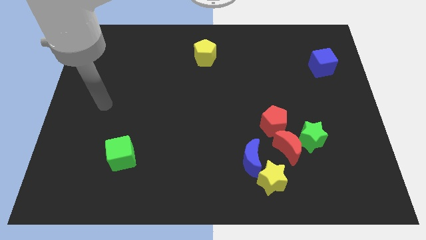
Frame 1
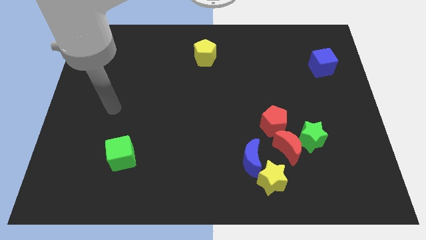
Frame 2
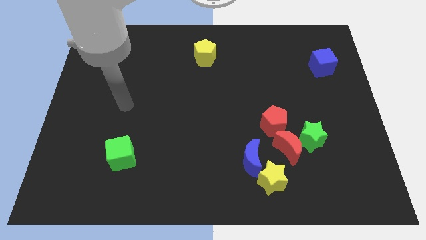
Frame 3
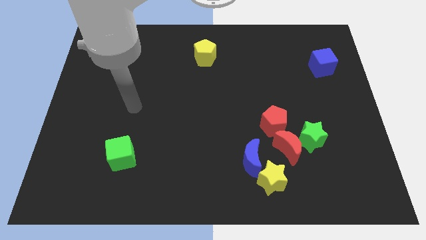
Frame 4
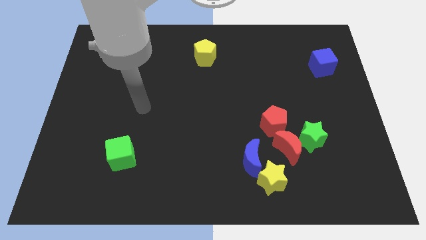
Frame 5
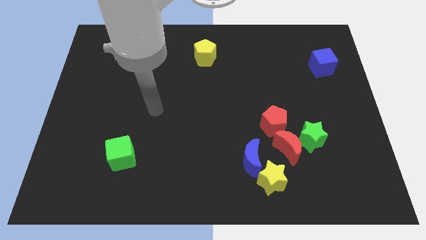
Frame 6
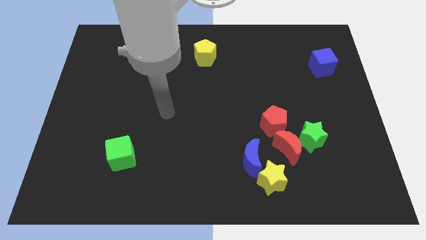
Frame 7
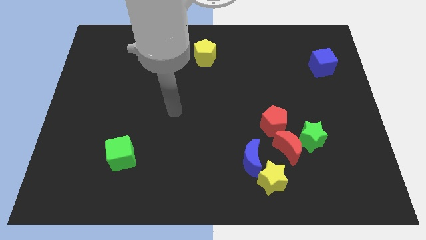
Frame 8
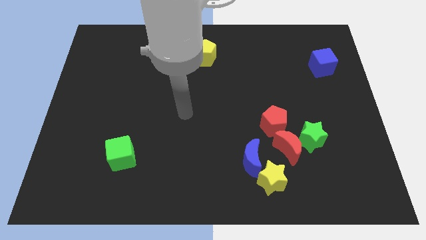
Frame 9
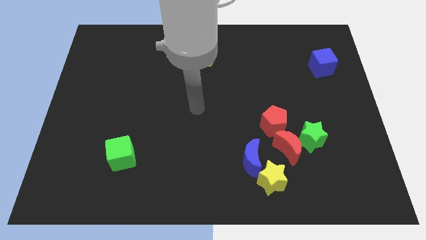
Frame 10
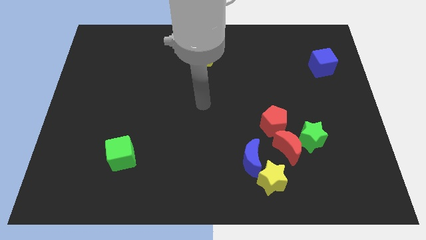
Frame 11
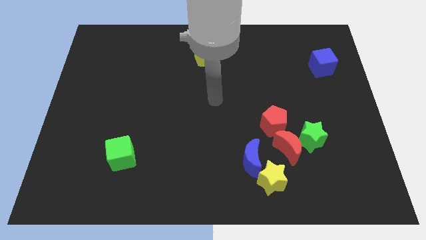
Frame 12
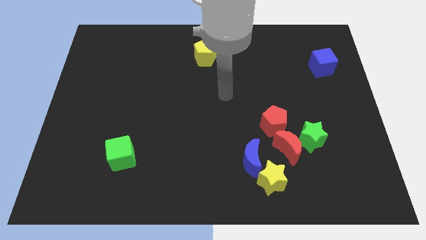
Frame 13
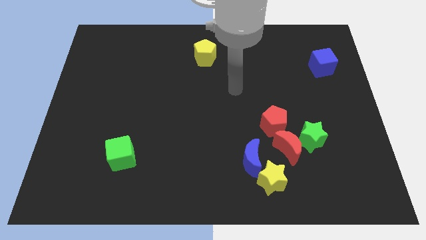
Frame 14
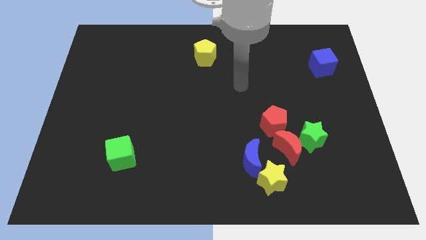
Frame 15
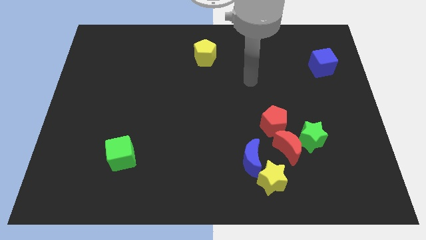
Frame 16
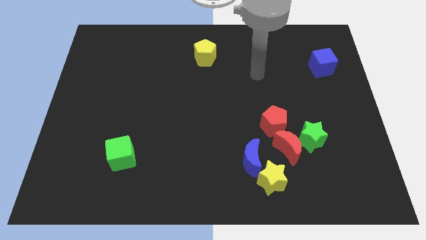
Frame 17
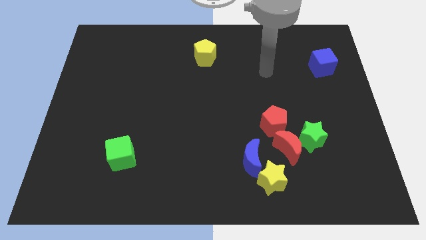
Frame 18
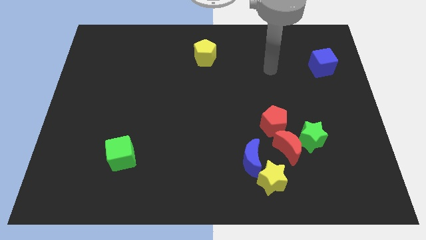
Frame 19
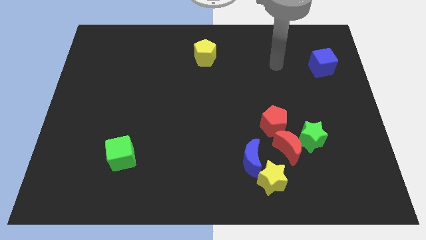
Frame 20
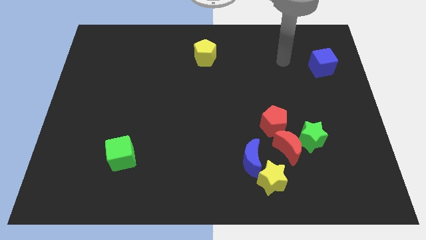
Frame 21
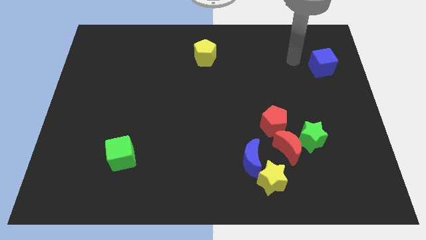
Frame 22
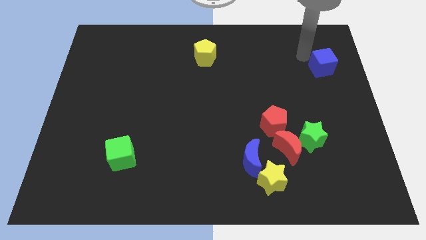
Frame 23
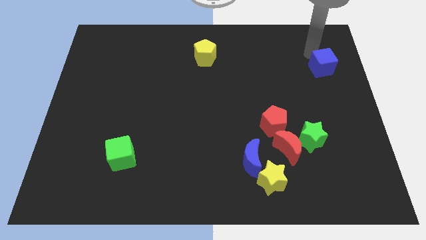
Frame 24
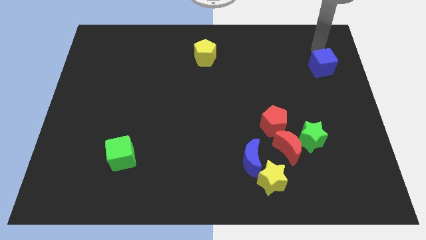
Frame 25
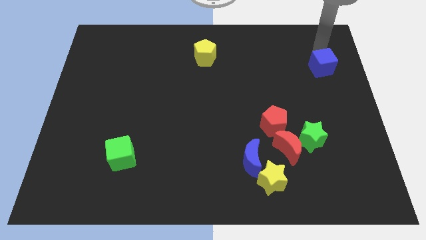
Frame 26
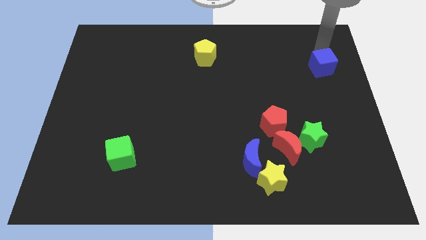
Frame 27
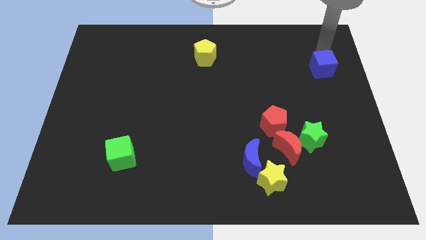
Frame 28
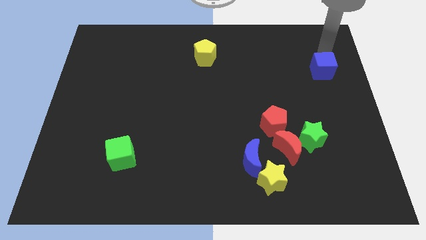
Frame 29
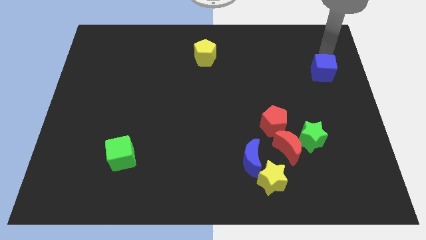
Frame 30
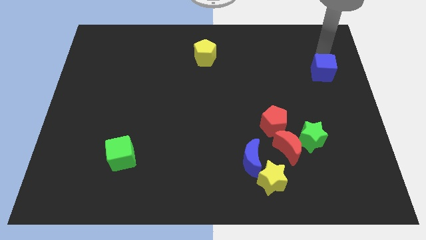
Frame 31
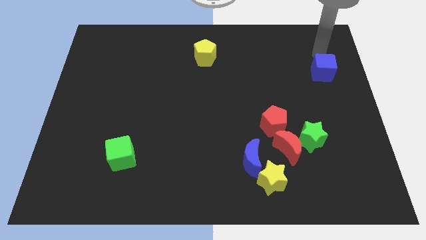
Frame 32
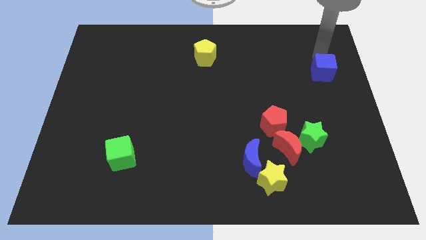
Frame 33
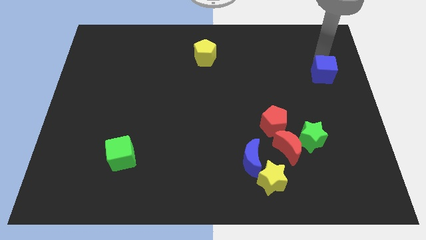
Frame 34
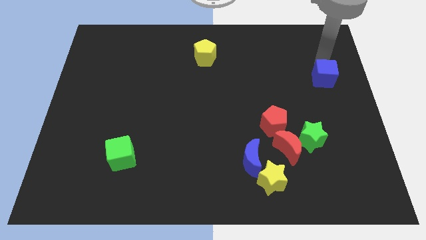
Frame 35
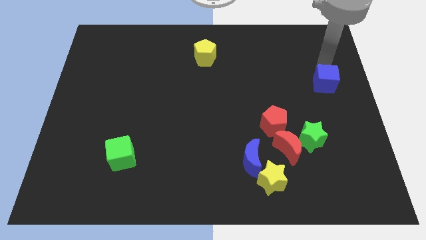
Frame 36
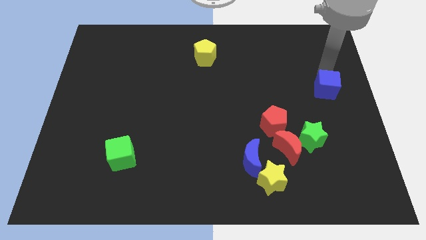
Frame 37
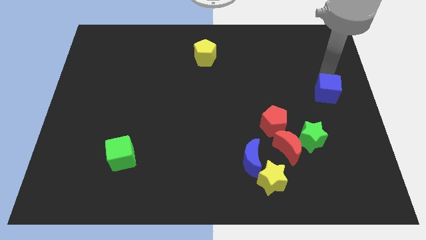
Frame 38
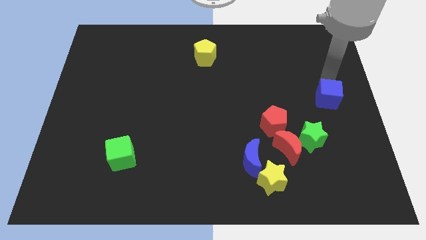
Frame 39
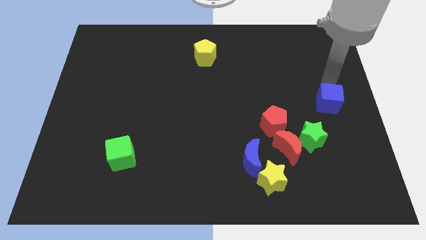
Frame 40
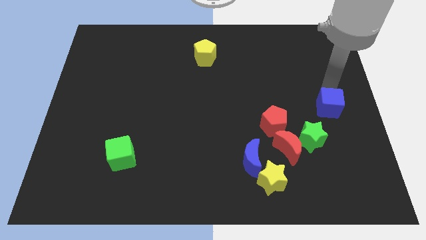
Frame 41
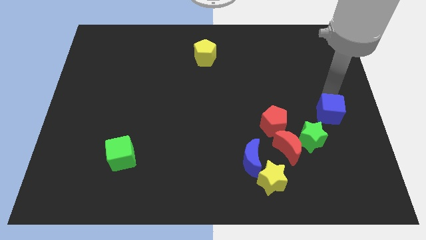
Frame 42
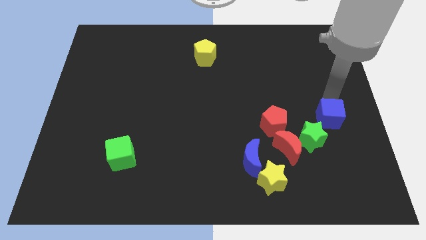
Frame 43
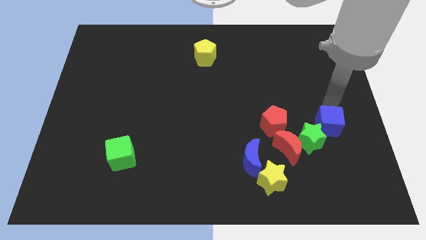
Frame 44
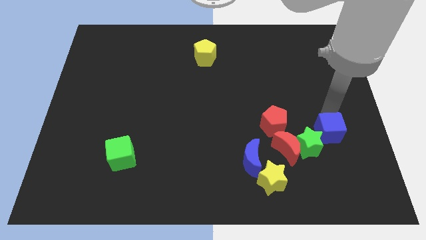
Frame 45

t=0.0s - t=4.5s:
move the blue cube down

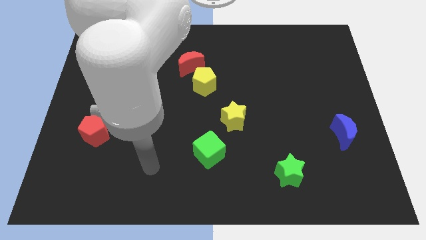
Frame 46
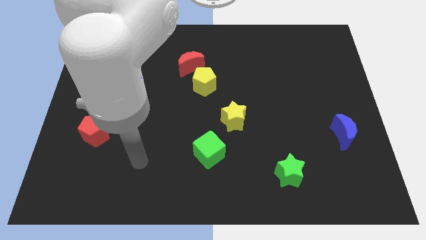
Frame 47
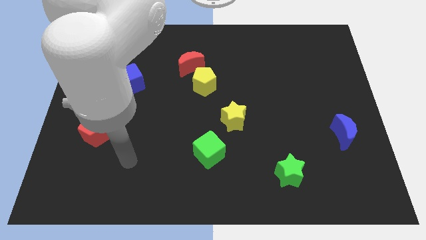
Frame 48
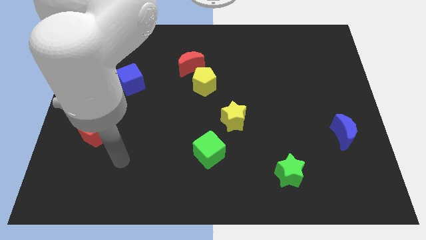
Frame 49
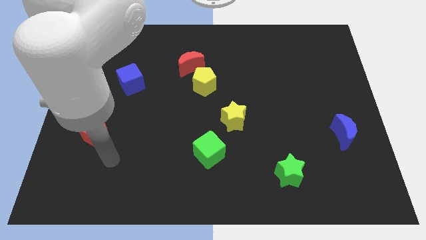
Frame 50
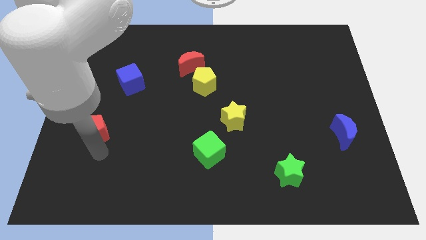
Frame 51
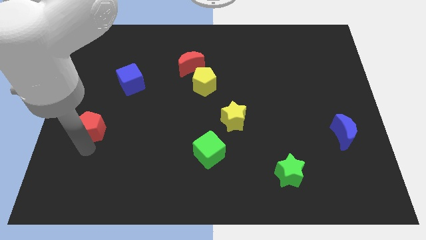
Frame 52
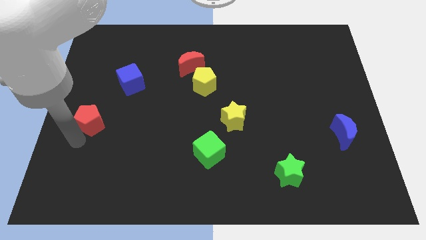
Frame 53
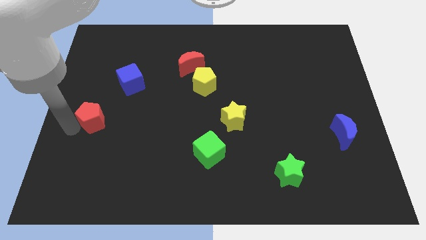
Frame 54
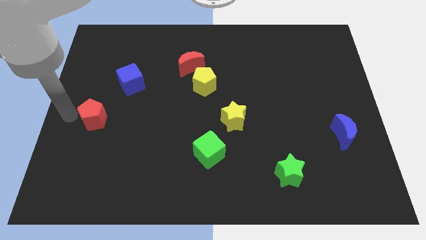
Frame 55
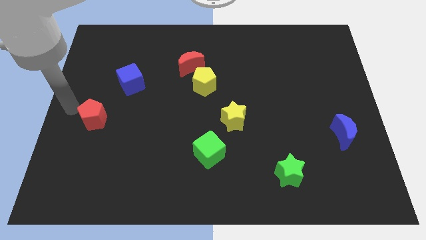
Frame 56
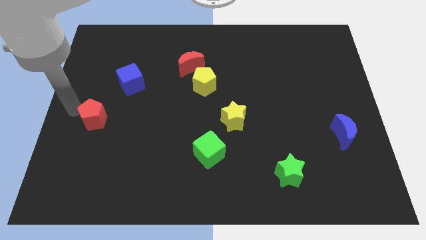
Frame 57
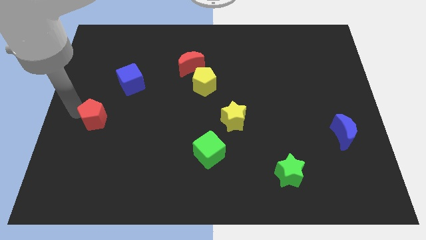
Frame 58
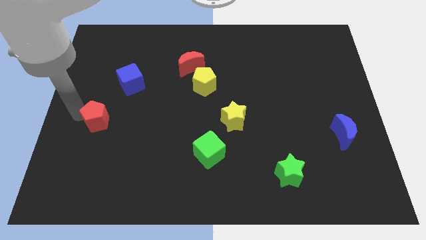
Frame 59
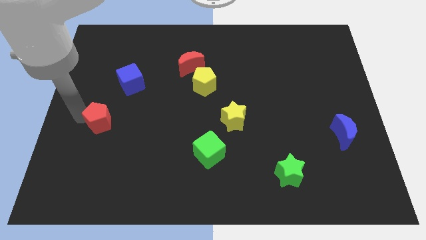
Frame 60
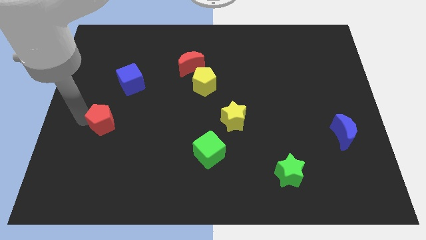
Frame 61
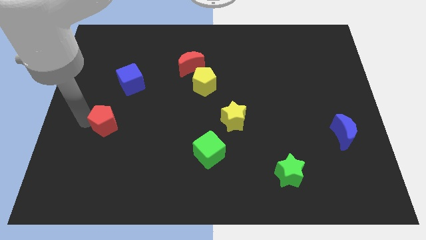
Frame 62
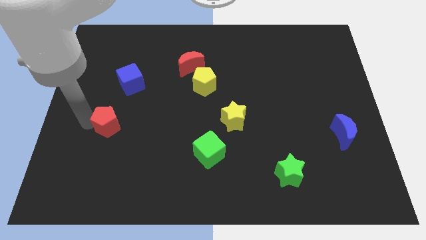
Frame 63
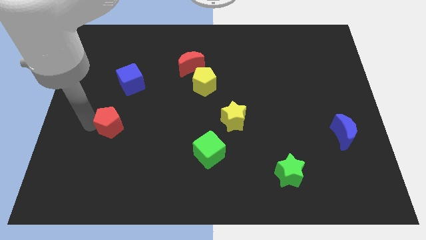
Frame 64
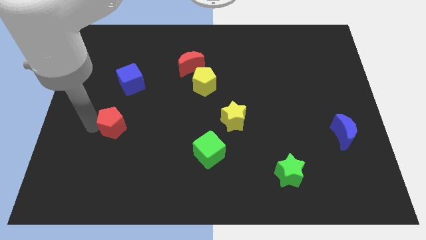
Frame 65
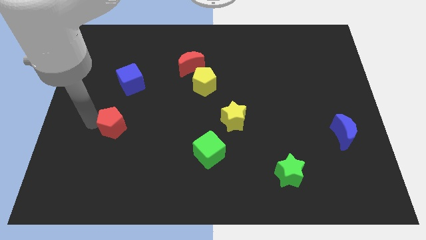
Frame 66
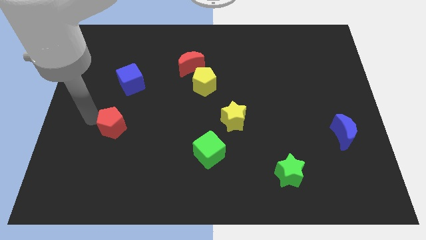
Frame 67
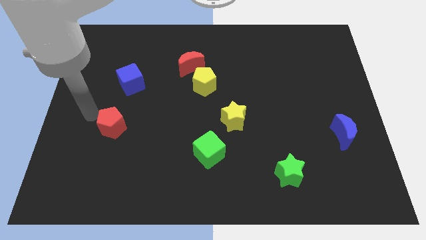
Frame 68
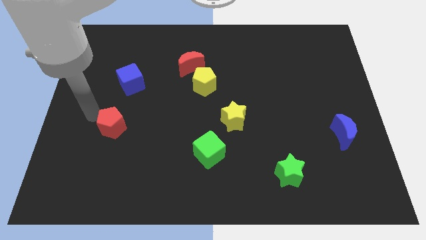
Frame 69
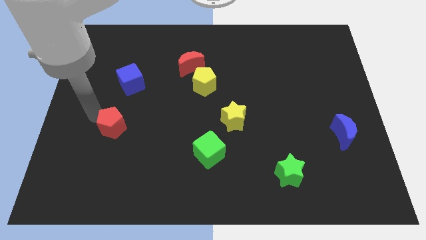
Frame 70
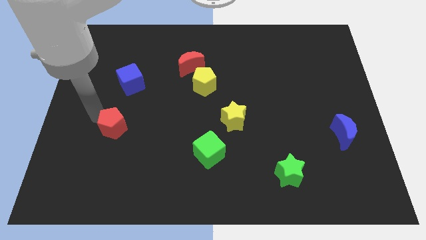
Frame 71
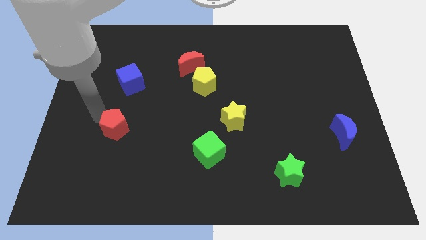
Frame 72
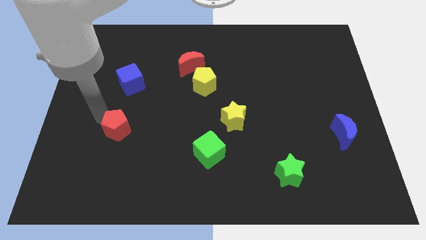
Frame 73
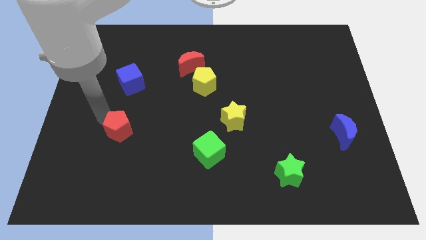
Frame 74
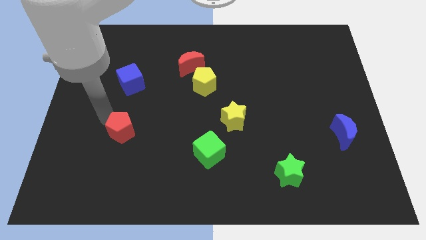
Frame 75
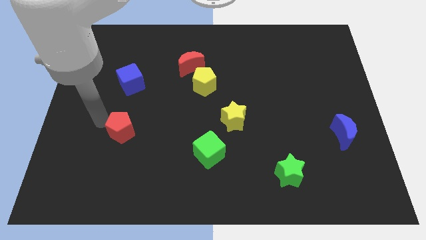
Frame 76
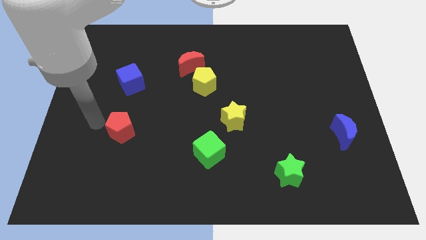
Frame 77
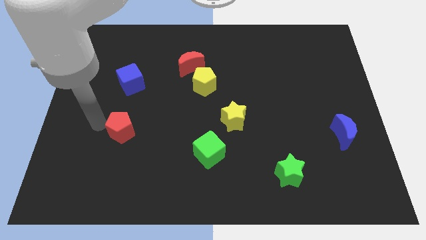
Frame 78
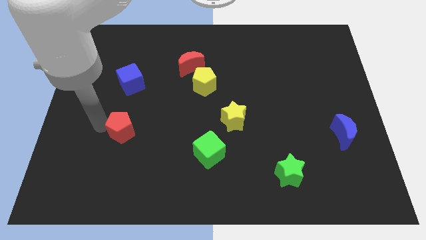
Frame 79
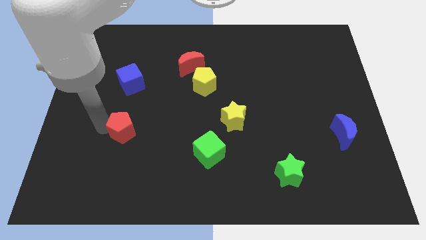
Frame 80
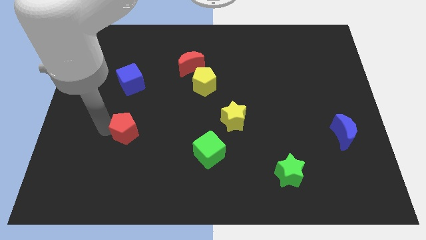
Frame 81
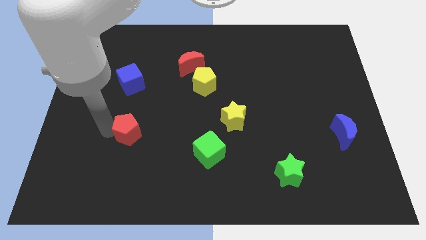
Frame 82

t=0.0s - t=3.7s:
slide the red pentagon right somewhat
